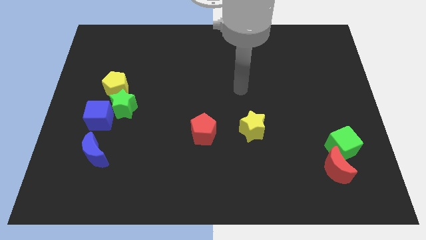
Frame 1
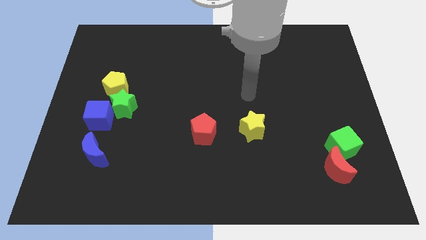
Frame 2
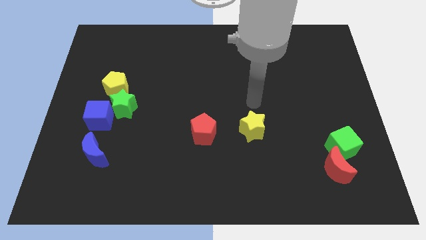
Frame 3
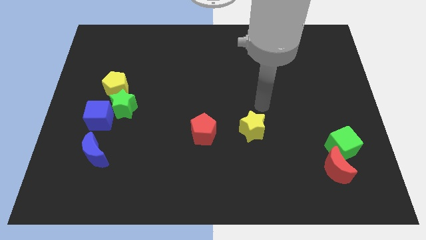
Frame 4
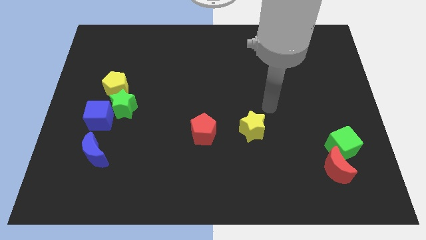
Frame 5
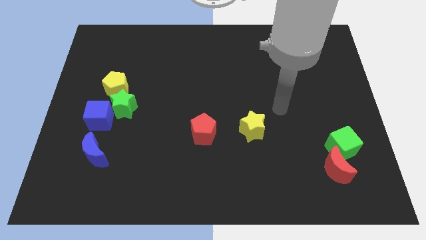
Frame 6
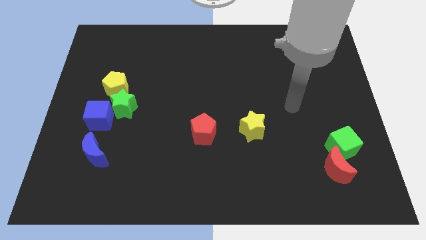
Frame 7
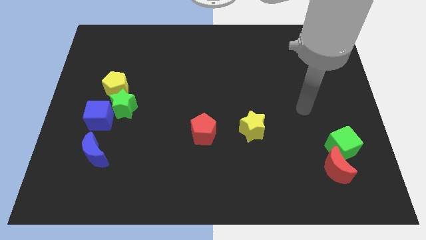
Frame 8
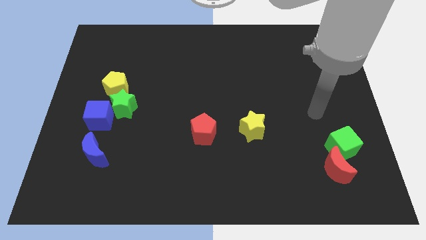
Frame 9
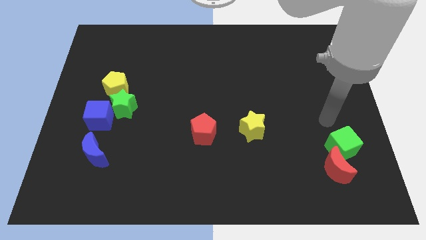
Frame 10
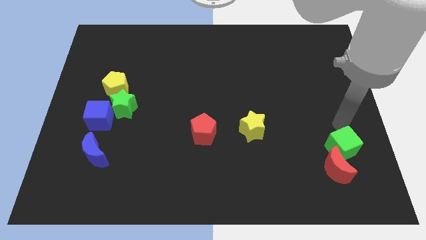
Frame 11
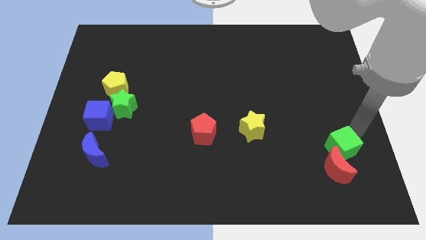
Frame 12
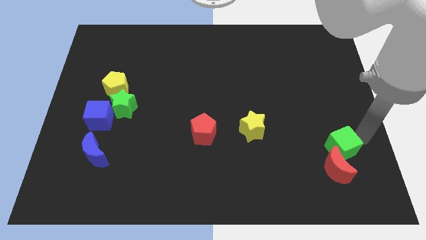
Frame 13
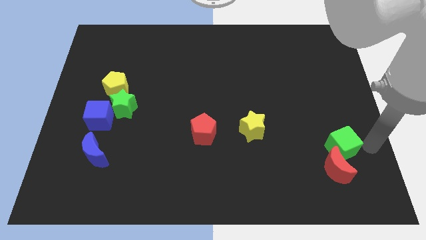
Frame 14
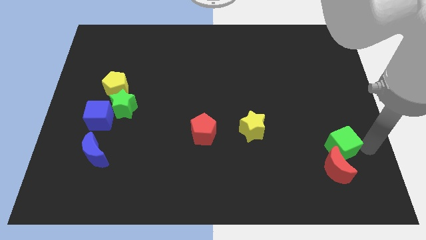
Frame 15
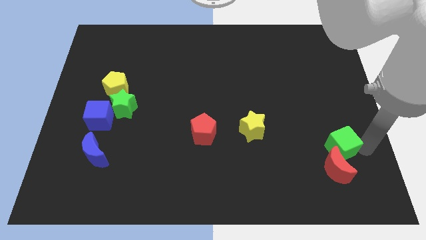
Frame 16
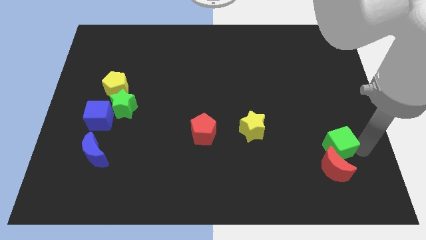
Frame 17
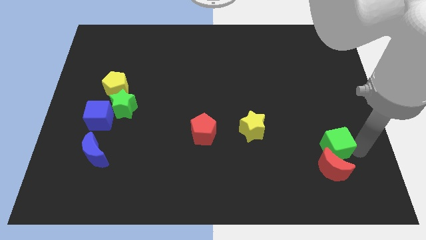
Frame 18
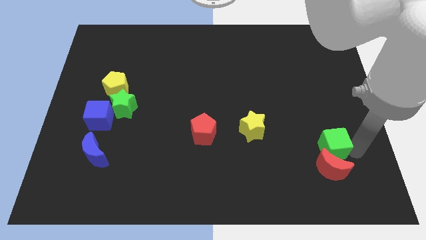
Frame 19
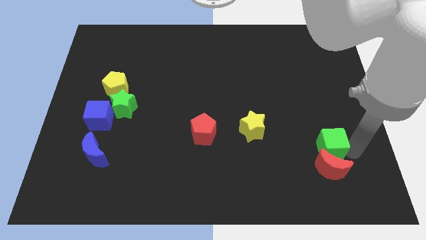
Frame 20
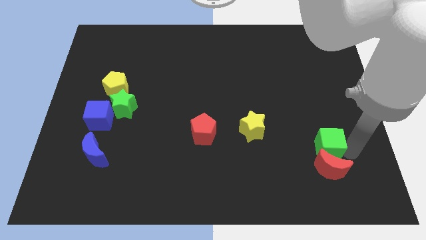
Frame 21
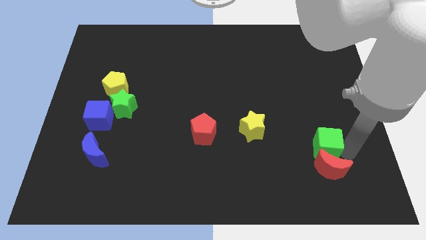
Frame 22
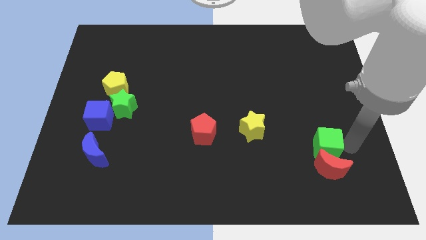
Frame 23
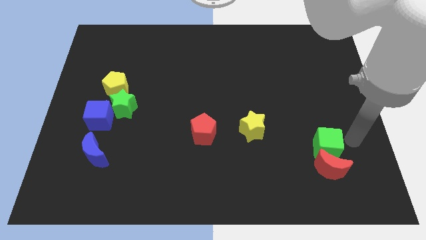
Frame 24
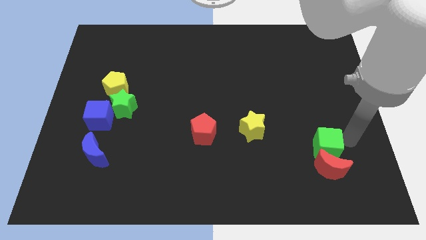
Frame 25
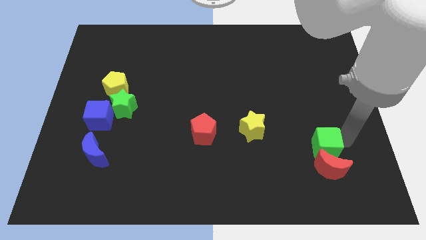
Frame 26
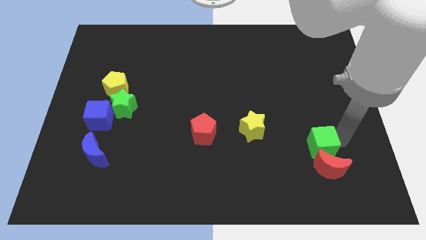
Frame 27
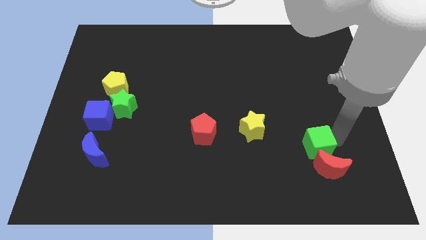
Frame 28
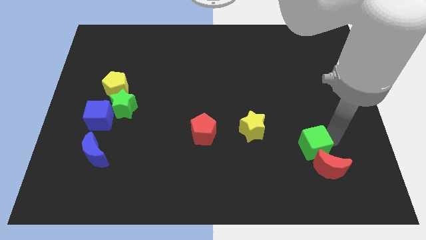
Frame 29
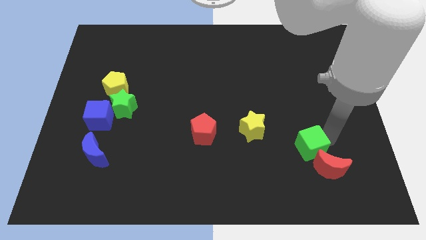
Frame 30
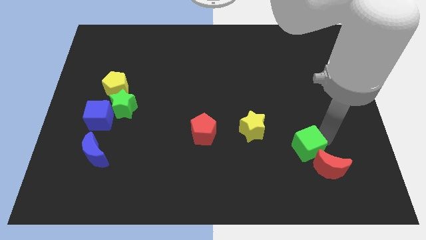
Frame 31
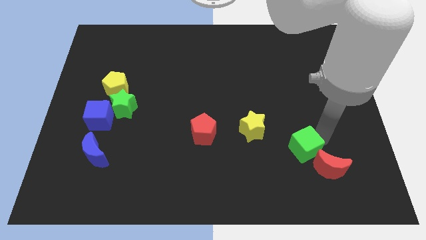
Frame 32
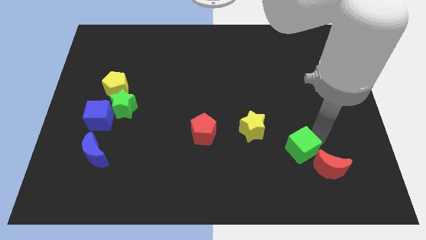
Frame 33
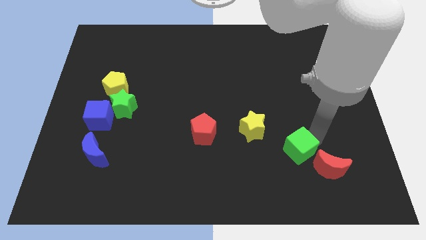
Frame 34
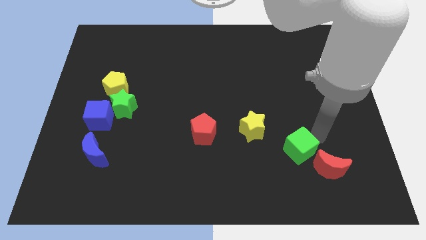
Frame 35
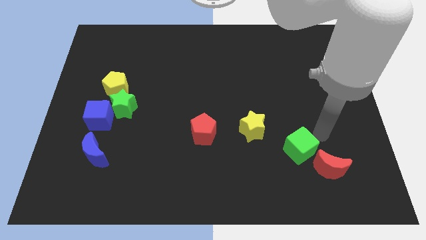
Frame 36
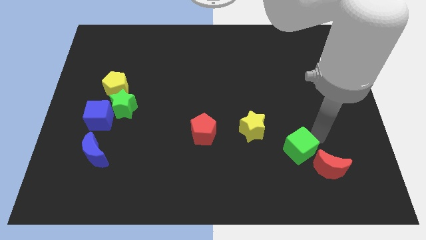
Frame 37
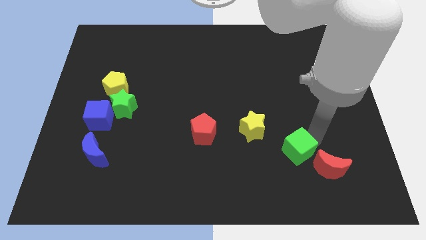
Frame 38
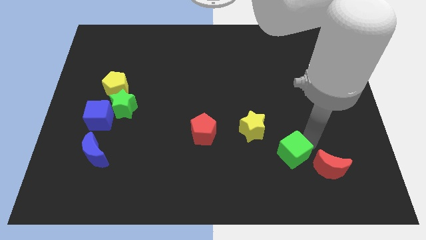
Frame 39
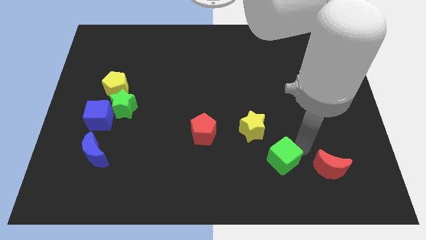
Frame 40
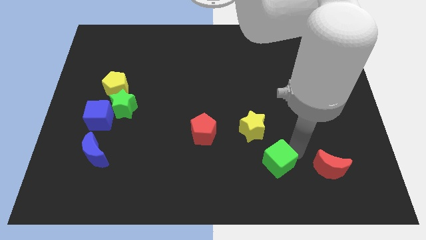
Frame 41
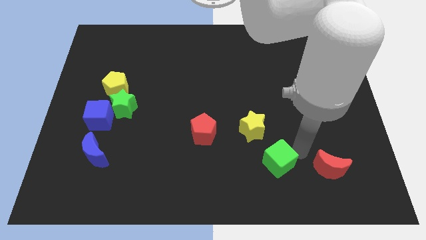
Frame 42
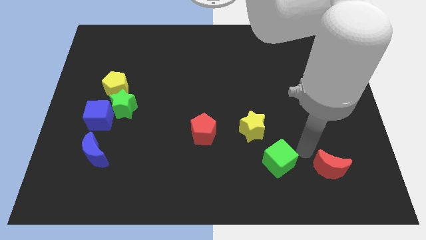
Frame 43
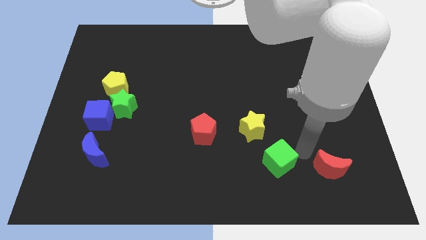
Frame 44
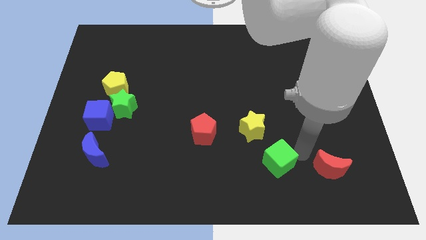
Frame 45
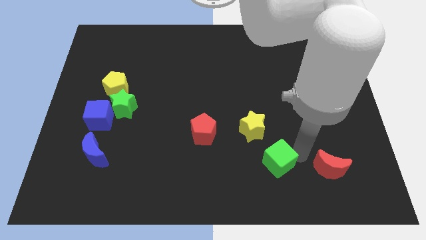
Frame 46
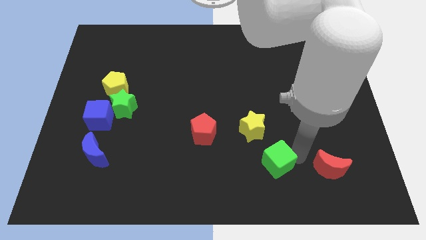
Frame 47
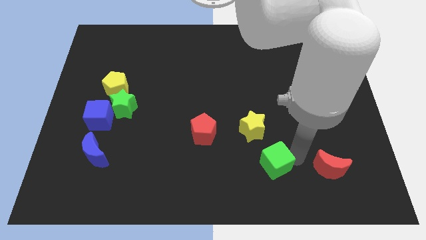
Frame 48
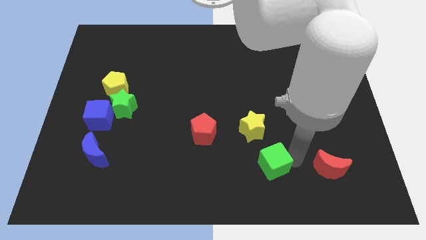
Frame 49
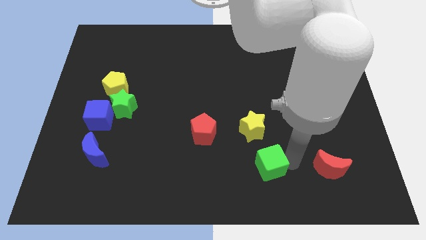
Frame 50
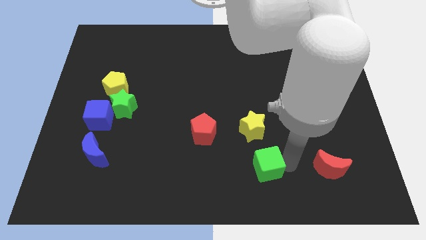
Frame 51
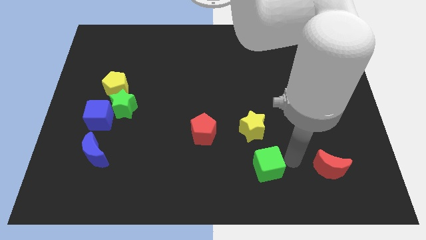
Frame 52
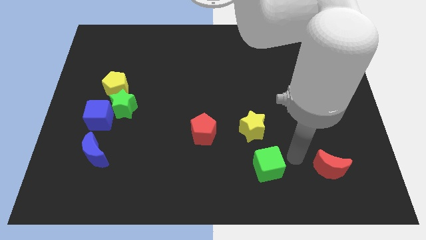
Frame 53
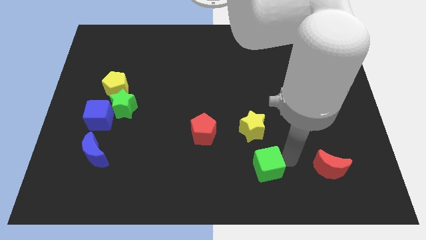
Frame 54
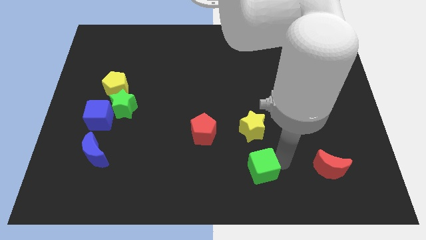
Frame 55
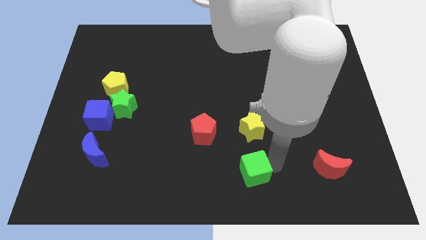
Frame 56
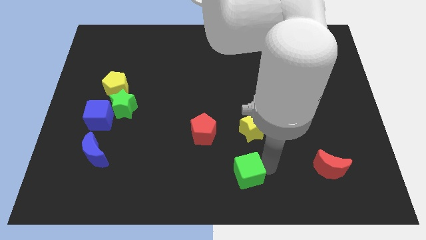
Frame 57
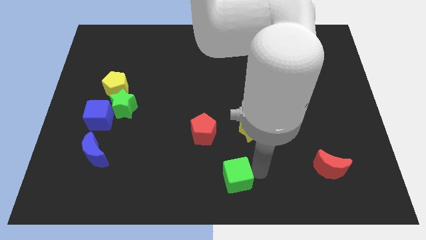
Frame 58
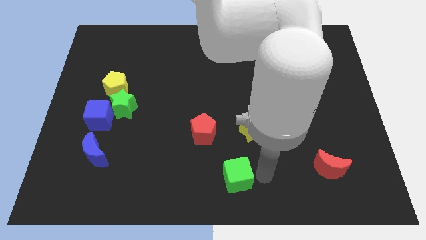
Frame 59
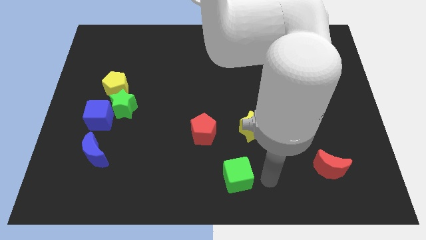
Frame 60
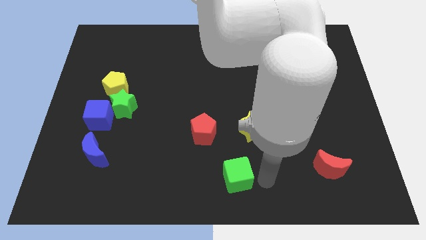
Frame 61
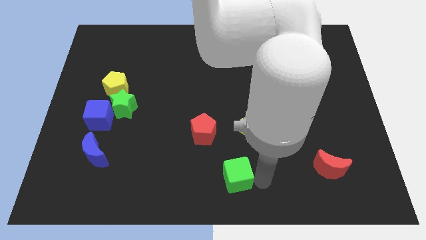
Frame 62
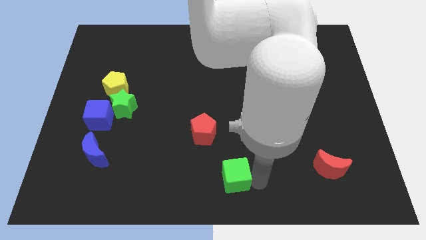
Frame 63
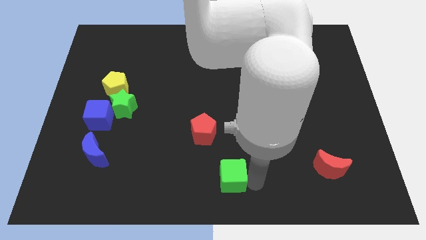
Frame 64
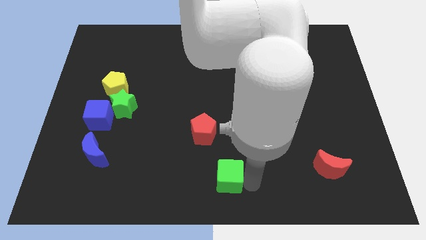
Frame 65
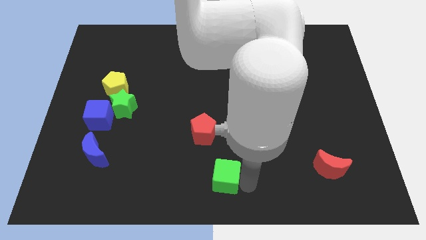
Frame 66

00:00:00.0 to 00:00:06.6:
slide the green cube below the red pentagon

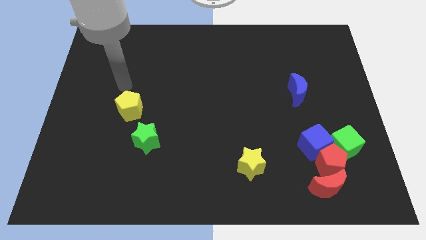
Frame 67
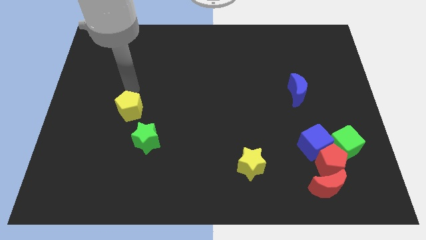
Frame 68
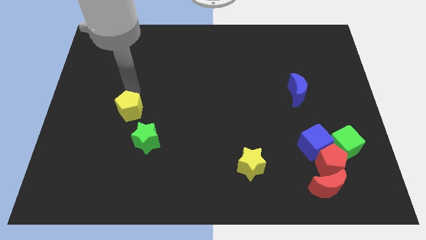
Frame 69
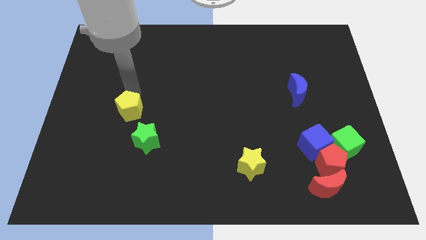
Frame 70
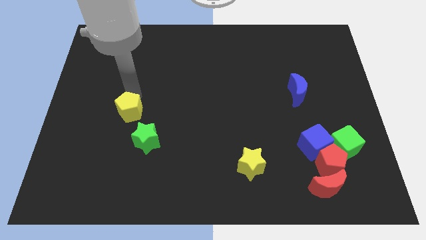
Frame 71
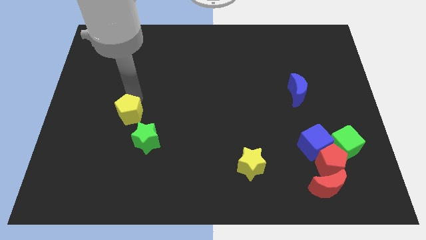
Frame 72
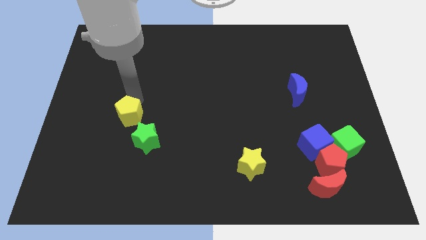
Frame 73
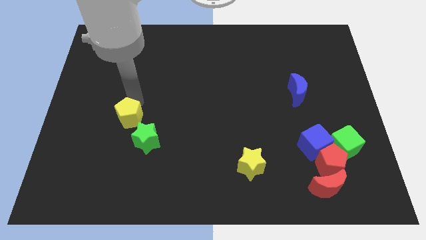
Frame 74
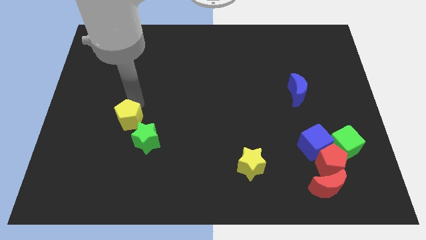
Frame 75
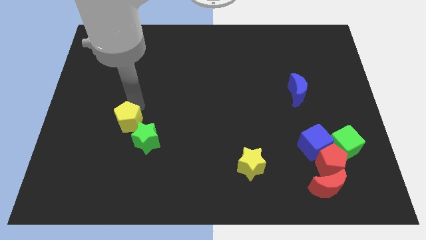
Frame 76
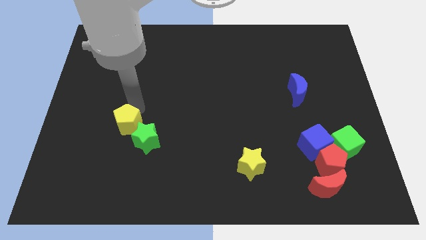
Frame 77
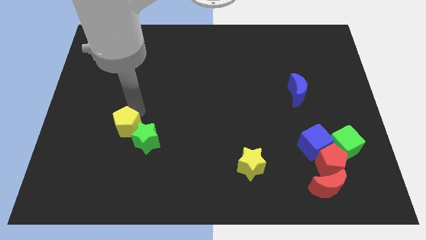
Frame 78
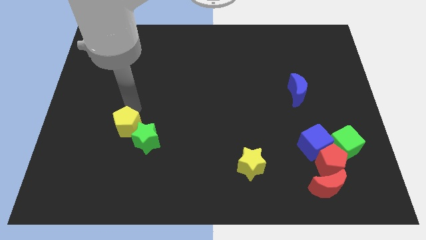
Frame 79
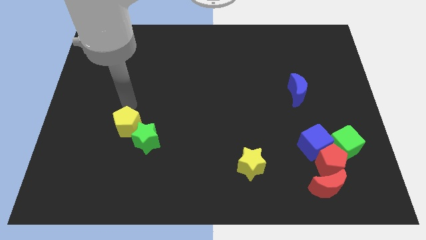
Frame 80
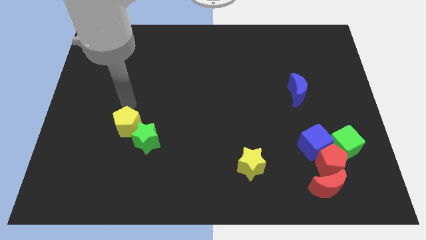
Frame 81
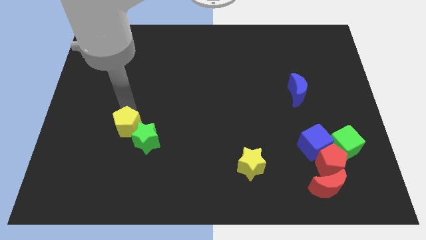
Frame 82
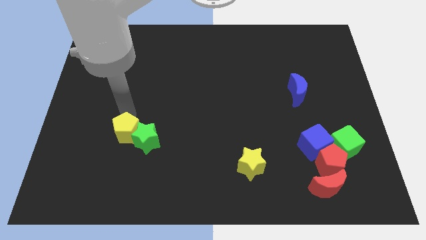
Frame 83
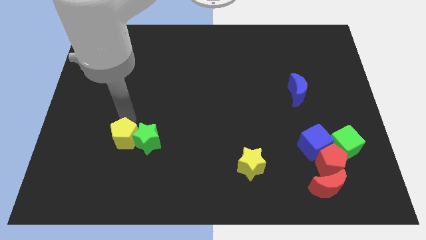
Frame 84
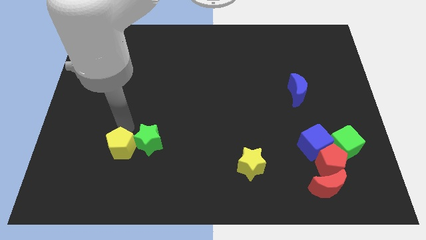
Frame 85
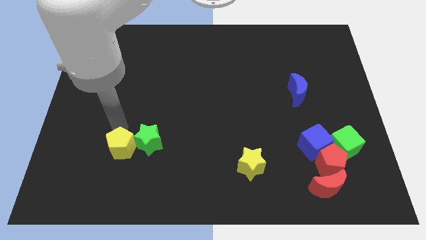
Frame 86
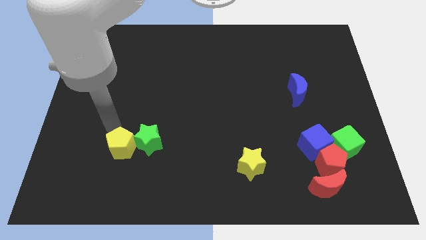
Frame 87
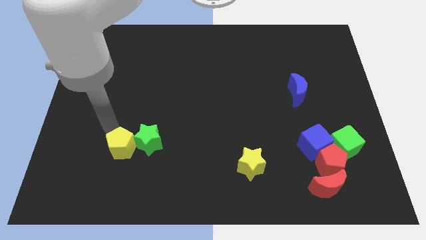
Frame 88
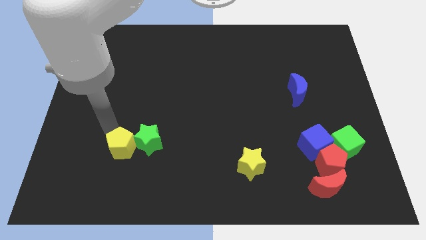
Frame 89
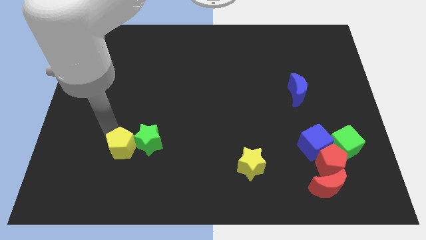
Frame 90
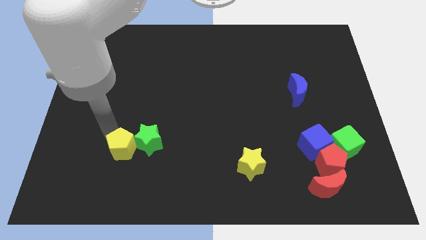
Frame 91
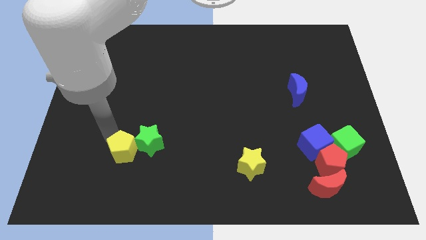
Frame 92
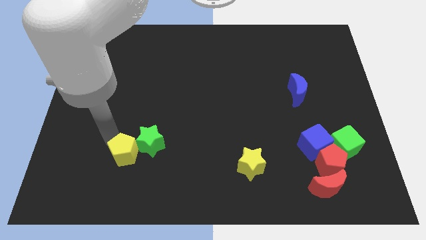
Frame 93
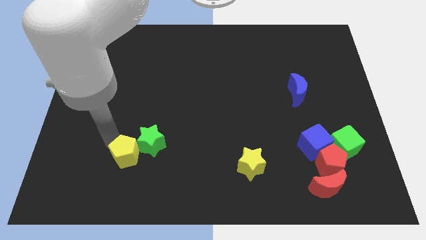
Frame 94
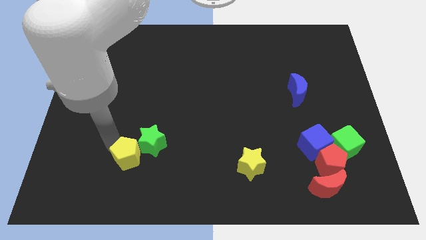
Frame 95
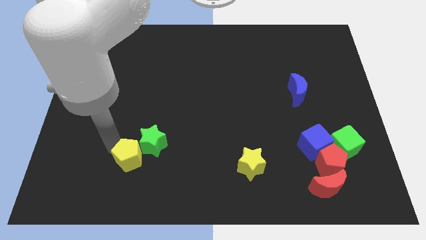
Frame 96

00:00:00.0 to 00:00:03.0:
move the yellow pentagon to the bottom side of the green star
